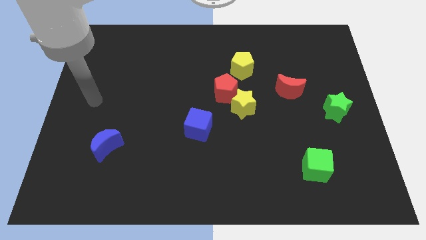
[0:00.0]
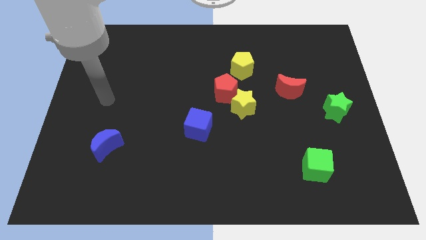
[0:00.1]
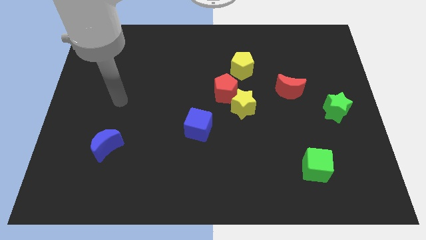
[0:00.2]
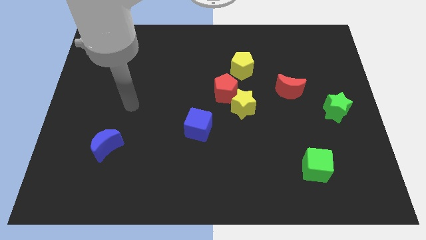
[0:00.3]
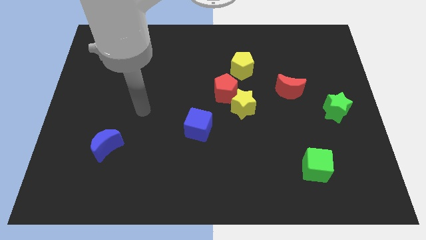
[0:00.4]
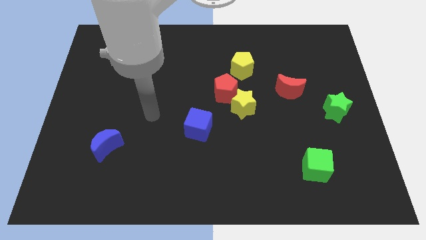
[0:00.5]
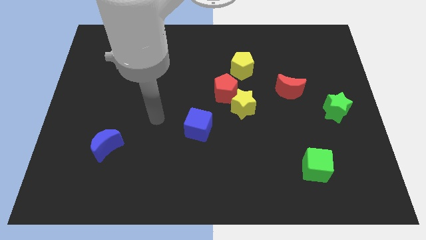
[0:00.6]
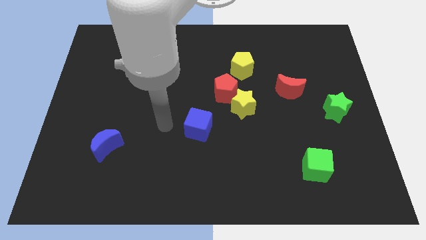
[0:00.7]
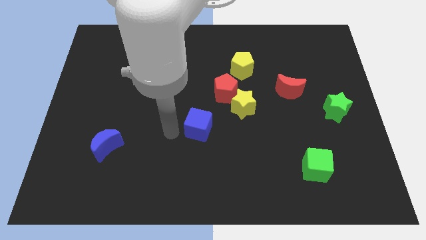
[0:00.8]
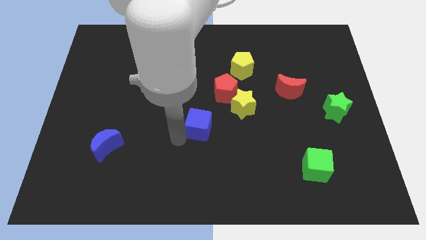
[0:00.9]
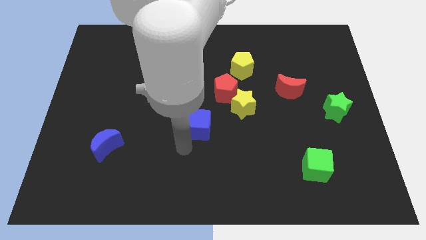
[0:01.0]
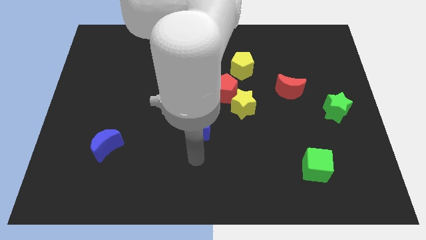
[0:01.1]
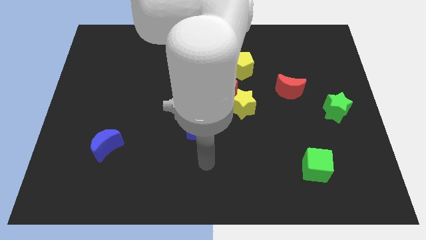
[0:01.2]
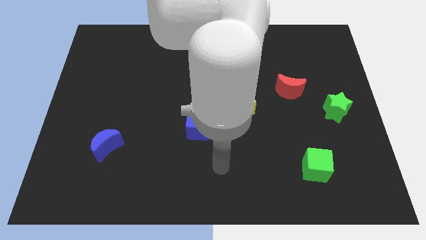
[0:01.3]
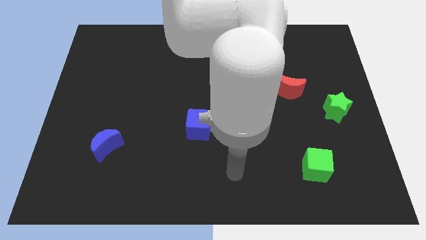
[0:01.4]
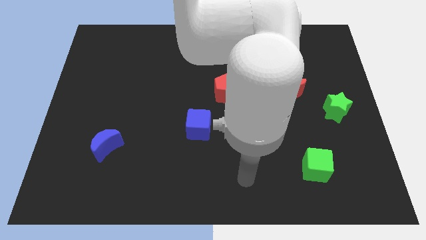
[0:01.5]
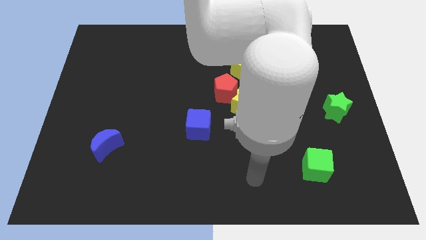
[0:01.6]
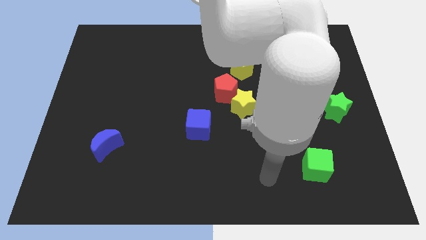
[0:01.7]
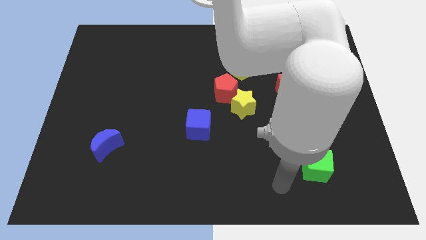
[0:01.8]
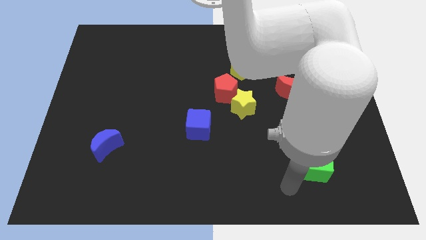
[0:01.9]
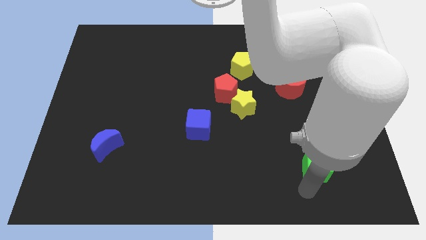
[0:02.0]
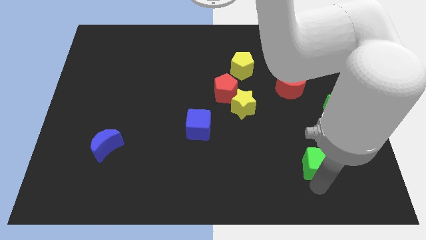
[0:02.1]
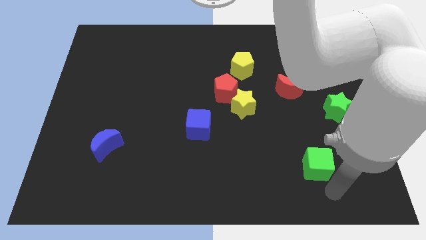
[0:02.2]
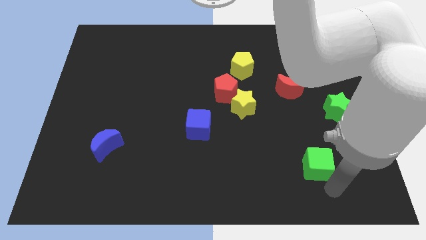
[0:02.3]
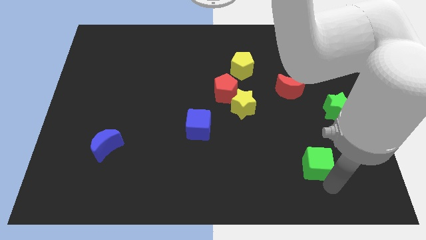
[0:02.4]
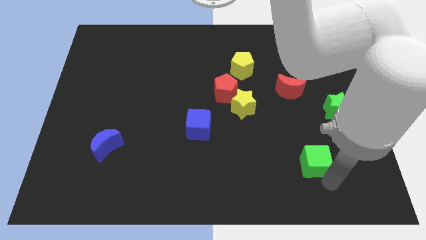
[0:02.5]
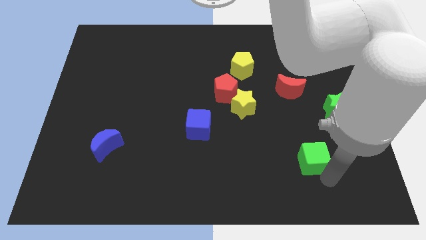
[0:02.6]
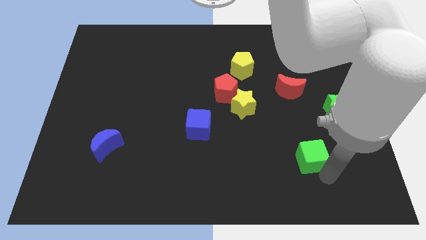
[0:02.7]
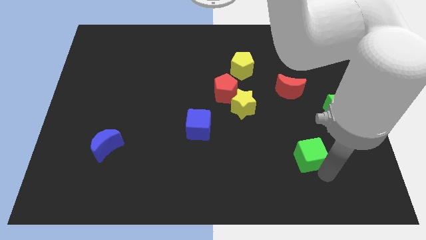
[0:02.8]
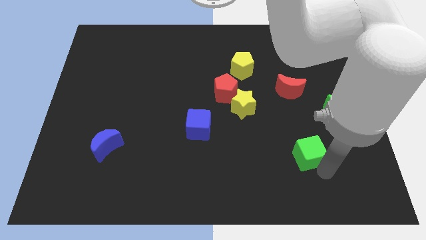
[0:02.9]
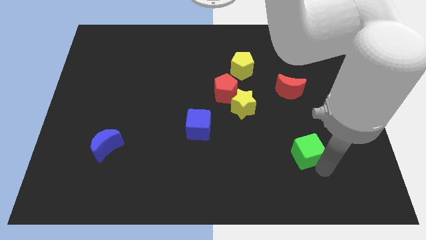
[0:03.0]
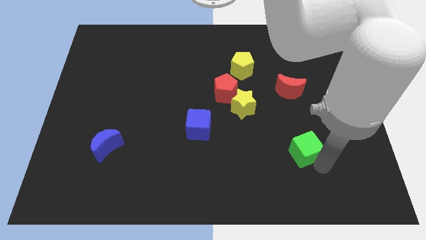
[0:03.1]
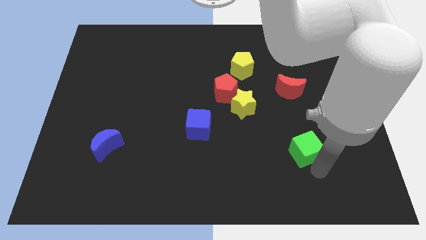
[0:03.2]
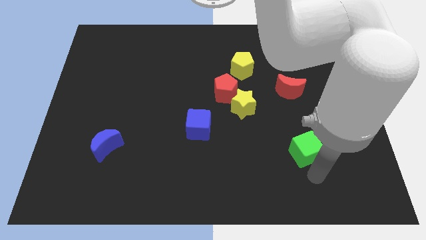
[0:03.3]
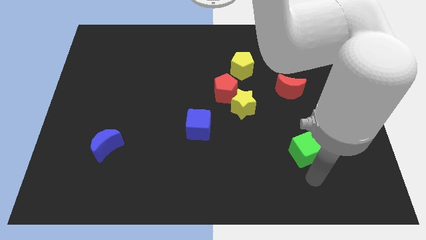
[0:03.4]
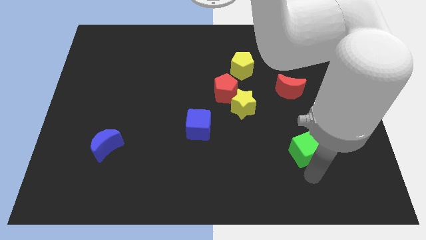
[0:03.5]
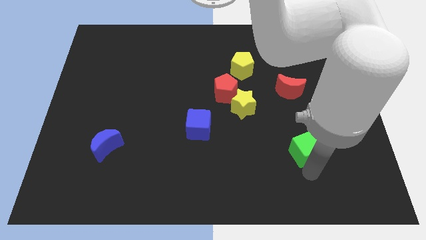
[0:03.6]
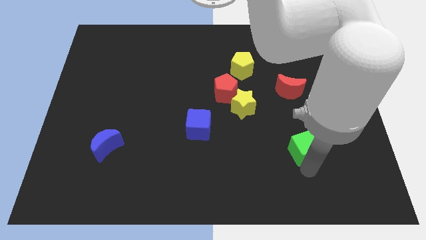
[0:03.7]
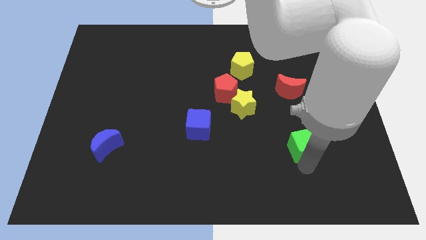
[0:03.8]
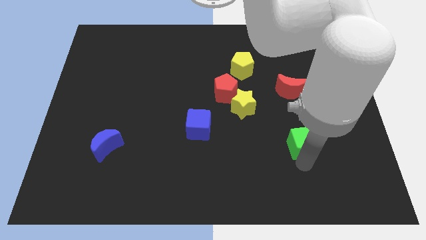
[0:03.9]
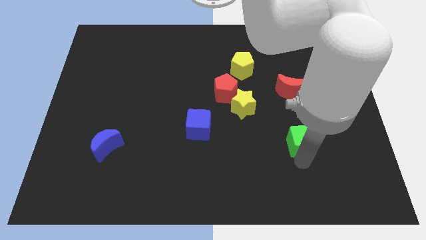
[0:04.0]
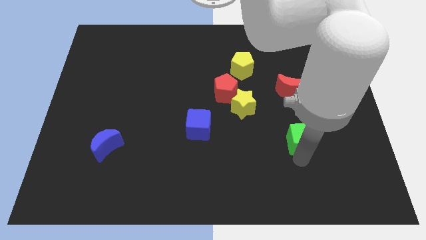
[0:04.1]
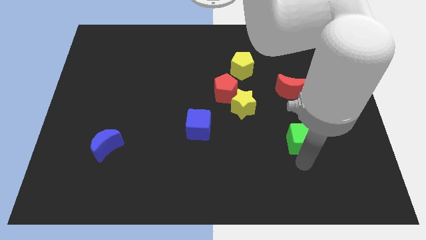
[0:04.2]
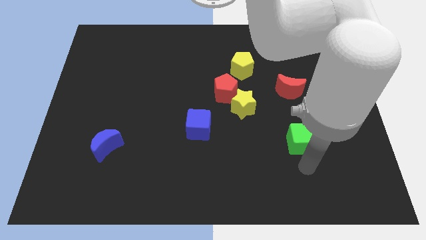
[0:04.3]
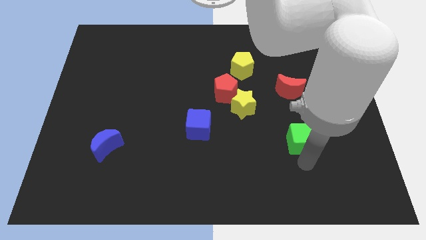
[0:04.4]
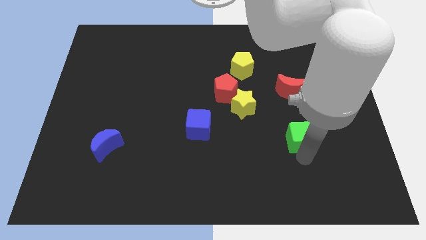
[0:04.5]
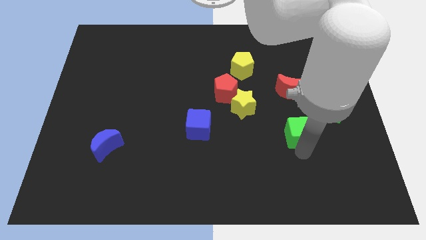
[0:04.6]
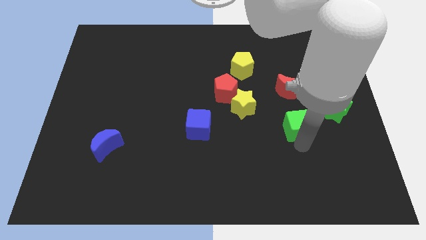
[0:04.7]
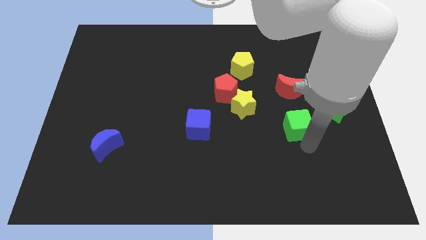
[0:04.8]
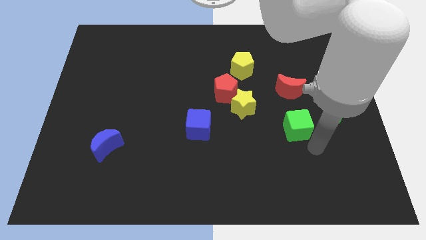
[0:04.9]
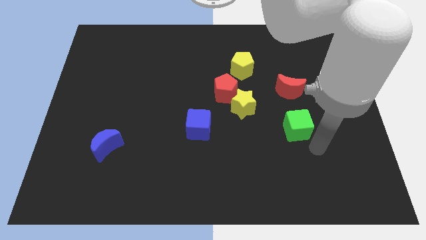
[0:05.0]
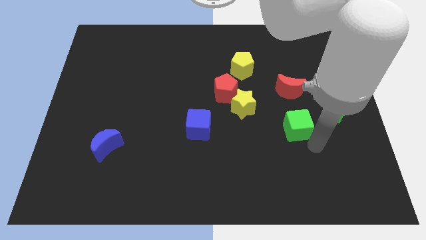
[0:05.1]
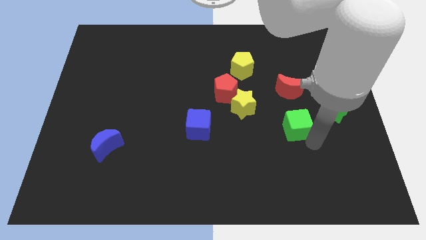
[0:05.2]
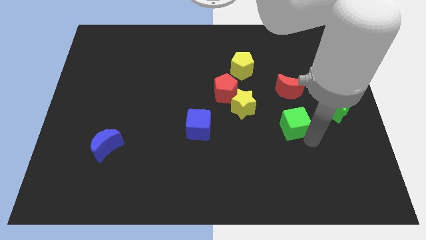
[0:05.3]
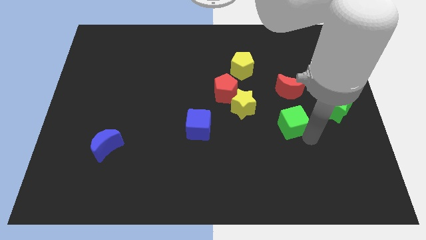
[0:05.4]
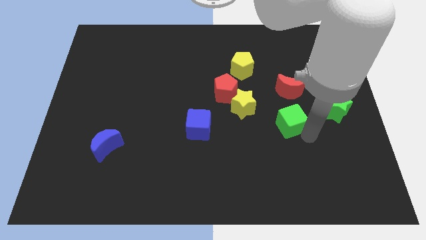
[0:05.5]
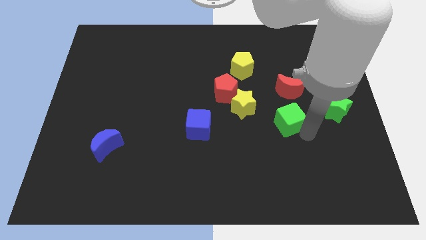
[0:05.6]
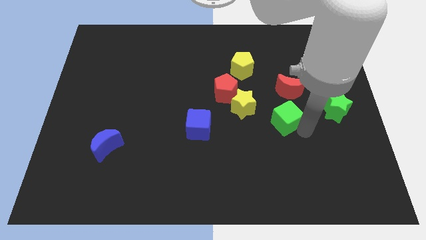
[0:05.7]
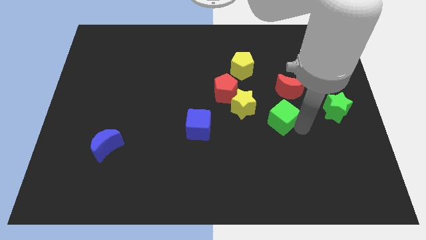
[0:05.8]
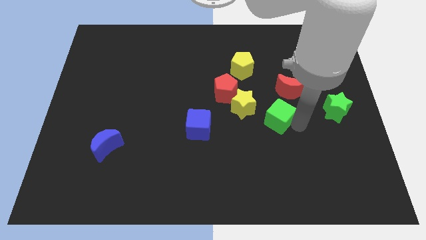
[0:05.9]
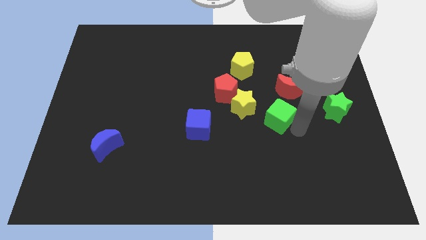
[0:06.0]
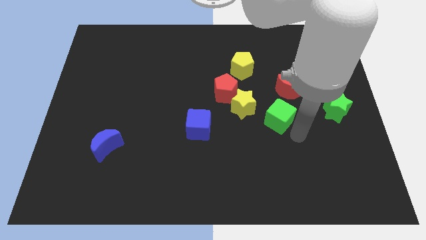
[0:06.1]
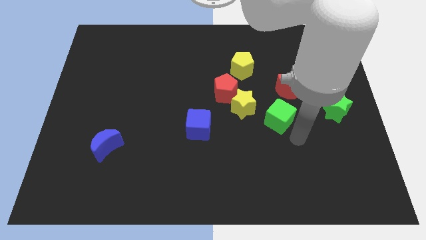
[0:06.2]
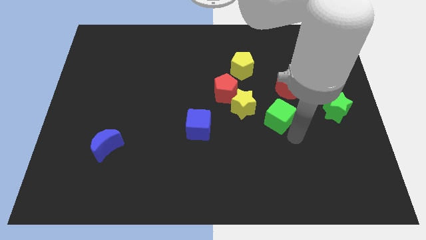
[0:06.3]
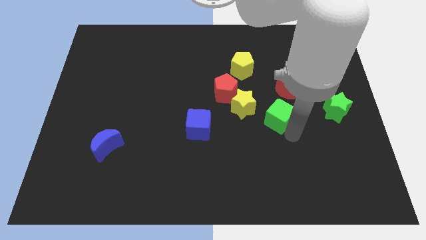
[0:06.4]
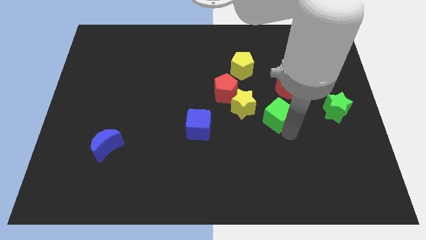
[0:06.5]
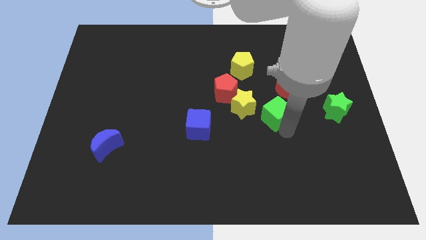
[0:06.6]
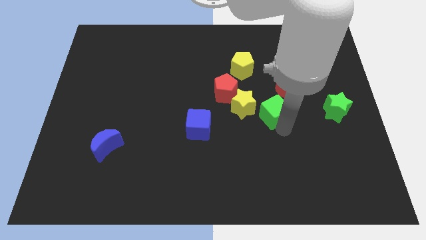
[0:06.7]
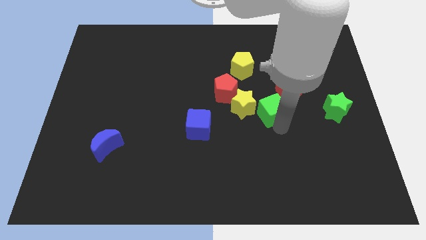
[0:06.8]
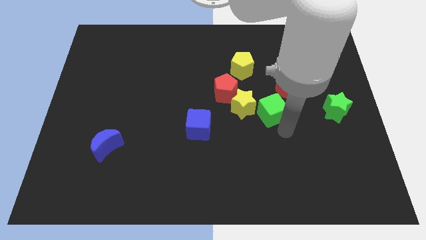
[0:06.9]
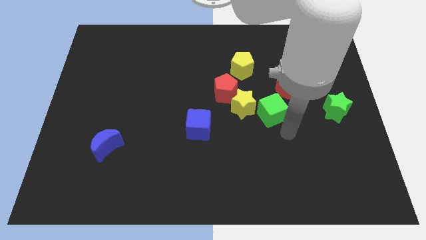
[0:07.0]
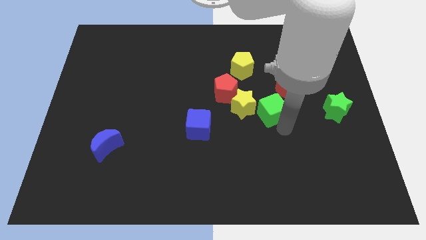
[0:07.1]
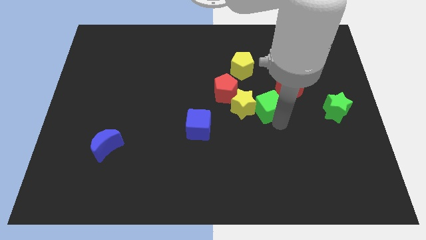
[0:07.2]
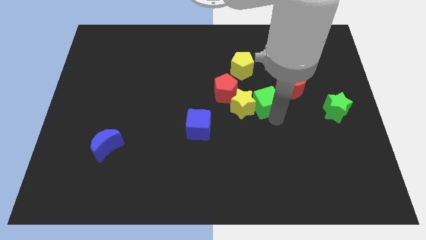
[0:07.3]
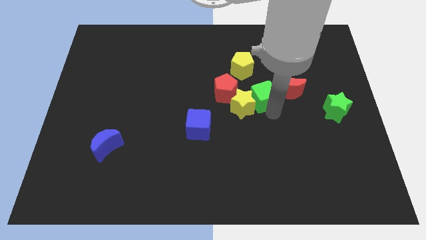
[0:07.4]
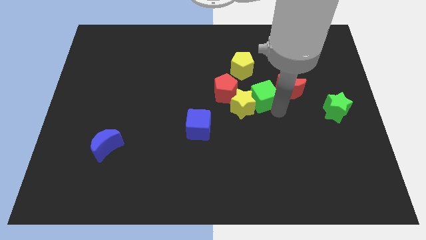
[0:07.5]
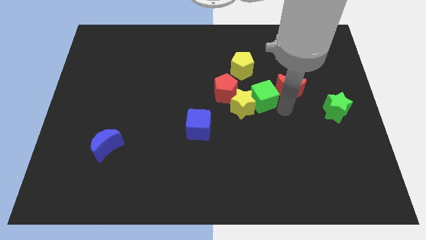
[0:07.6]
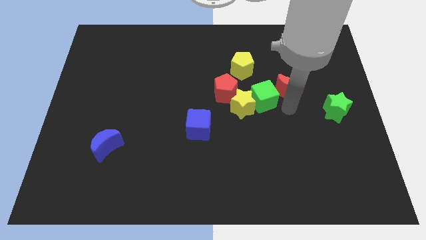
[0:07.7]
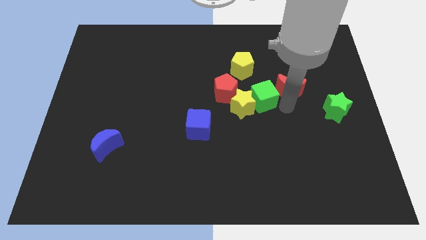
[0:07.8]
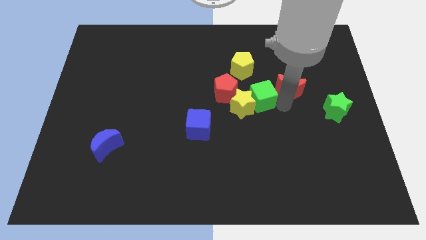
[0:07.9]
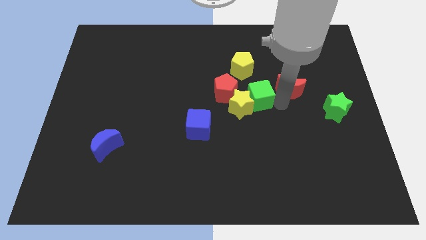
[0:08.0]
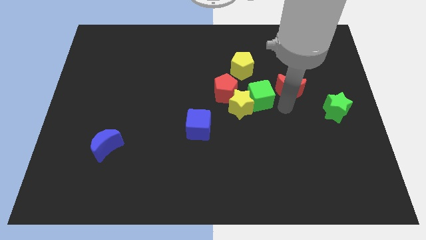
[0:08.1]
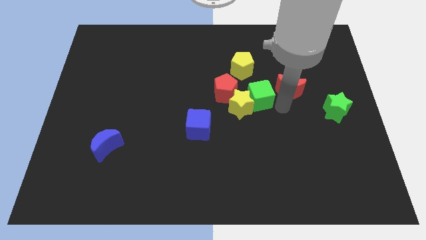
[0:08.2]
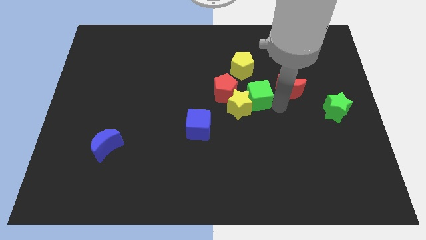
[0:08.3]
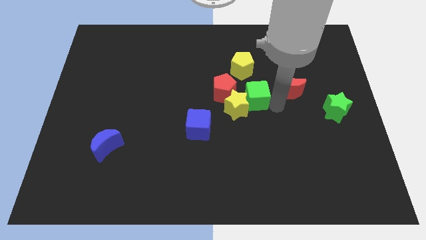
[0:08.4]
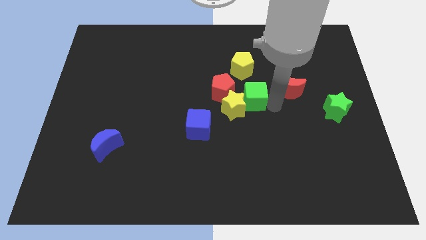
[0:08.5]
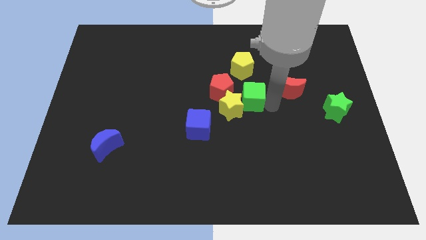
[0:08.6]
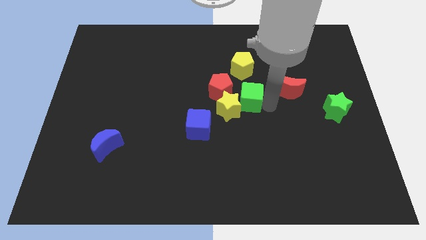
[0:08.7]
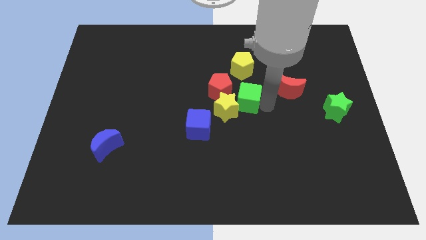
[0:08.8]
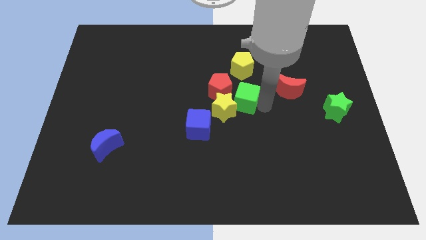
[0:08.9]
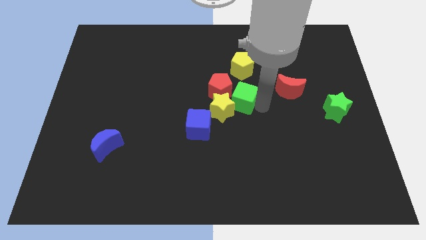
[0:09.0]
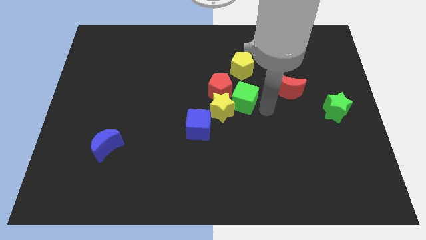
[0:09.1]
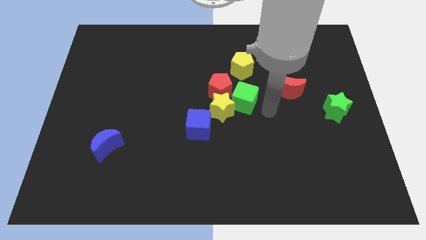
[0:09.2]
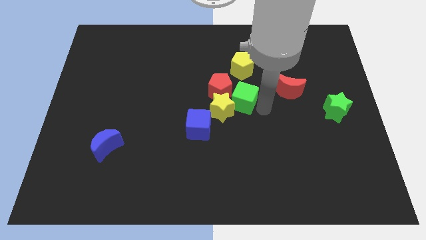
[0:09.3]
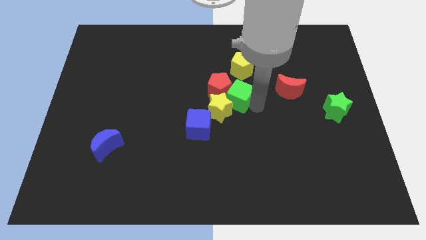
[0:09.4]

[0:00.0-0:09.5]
push the green cube to the red pentagon
